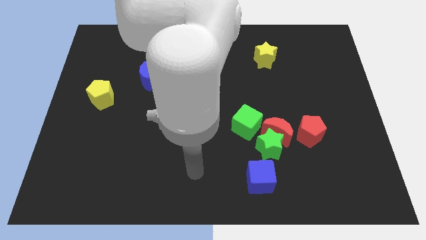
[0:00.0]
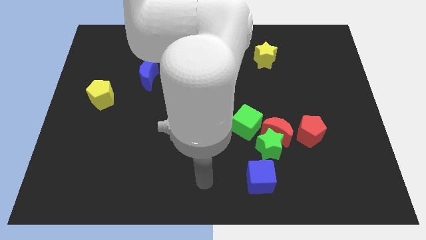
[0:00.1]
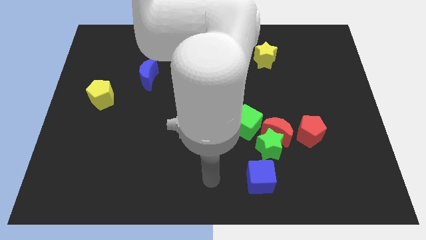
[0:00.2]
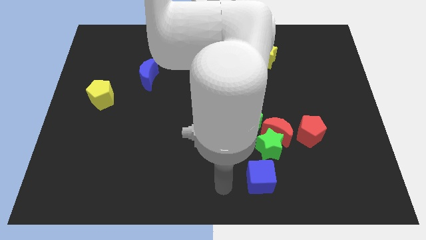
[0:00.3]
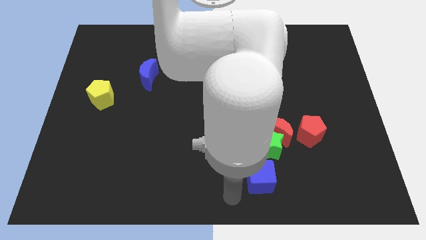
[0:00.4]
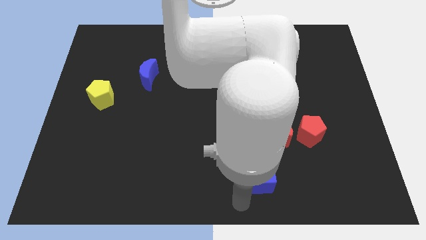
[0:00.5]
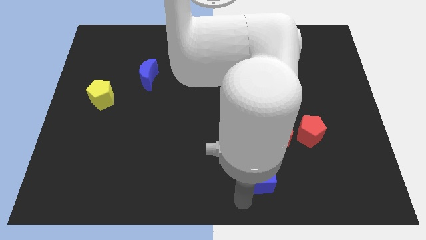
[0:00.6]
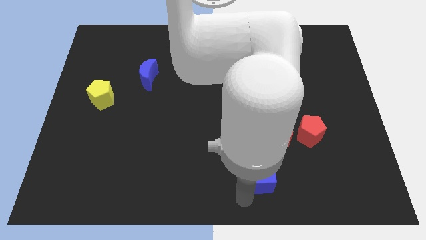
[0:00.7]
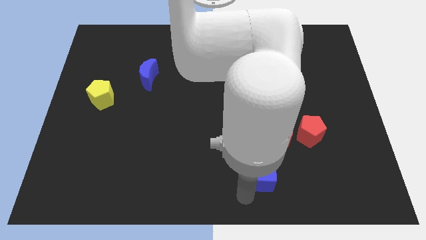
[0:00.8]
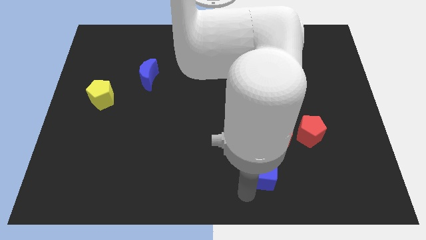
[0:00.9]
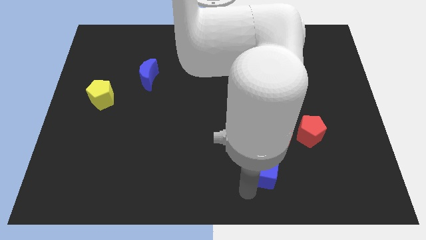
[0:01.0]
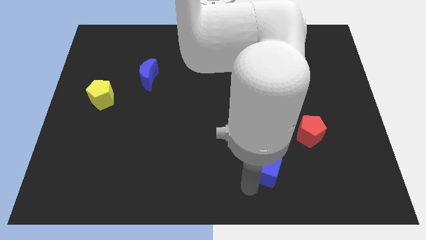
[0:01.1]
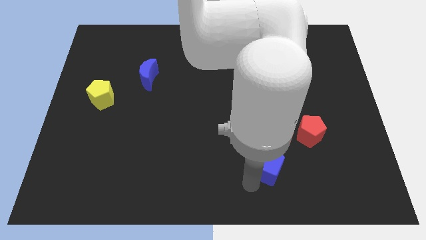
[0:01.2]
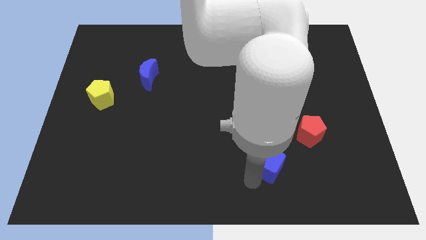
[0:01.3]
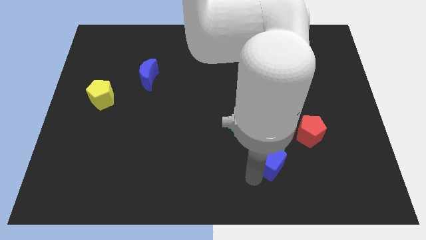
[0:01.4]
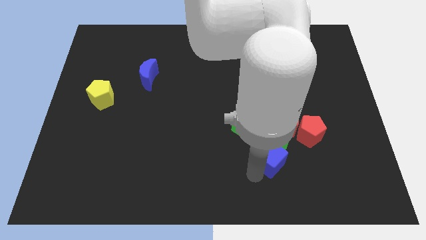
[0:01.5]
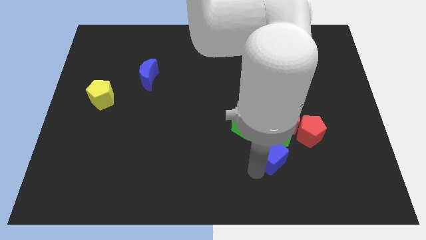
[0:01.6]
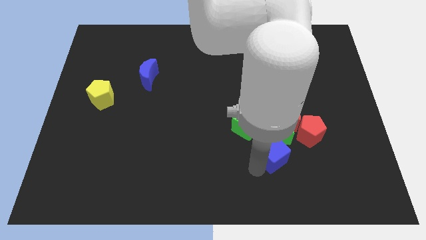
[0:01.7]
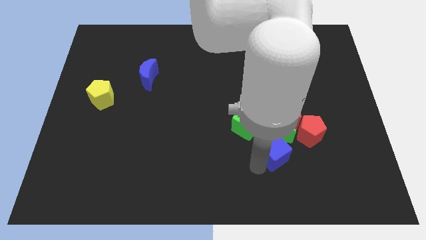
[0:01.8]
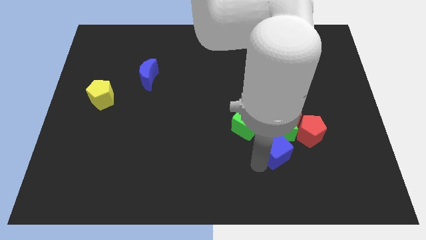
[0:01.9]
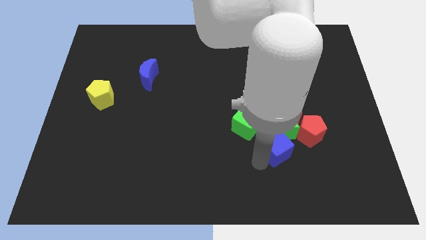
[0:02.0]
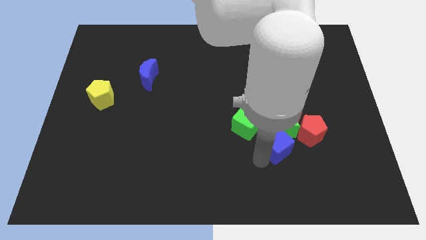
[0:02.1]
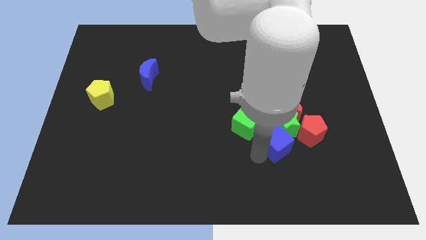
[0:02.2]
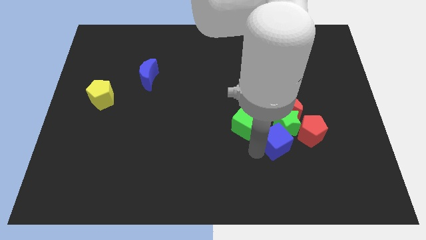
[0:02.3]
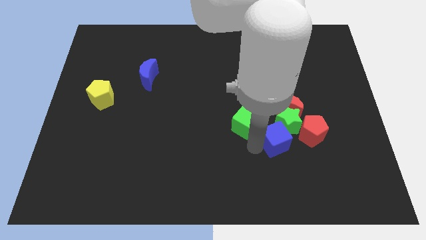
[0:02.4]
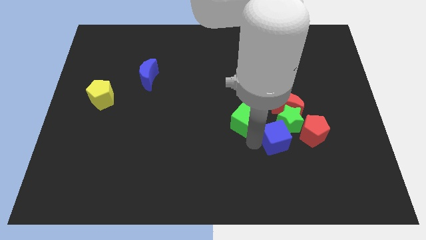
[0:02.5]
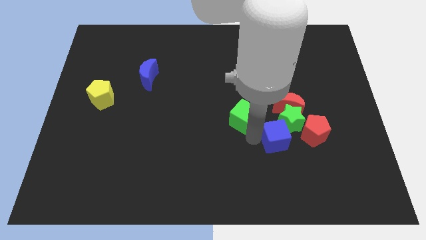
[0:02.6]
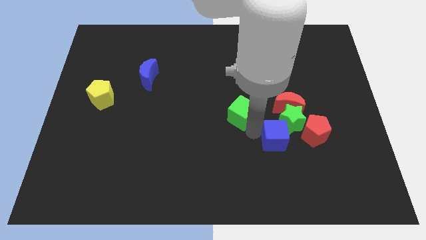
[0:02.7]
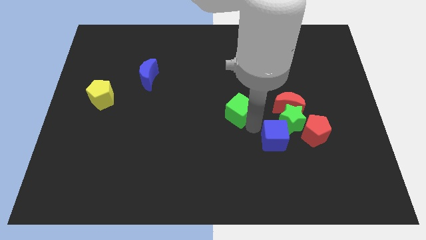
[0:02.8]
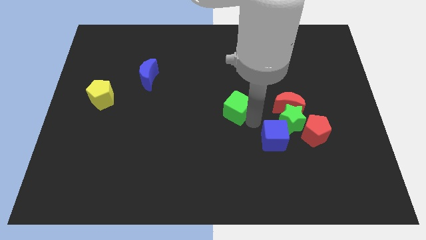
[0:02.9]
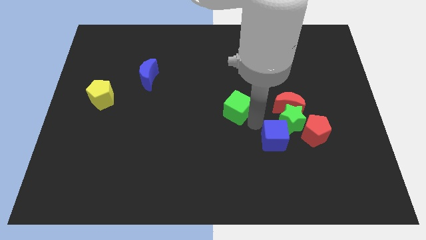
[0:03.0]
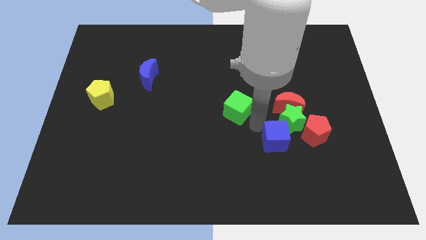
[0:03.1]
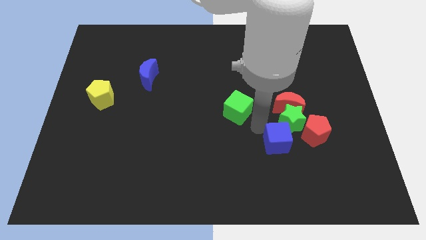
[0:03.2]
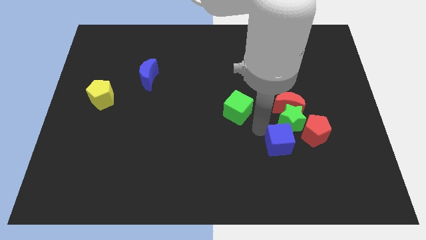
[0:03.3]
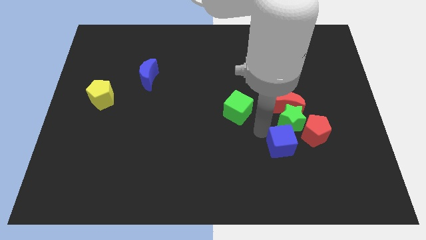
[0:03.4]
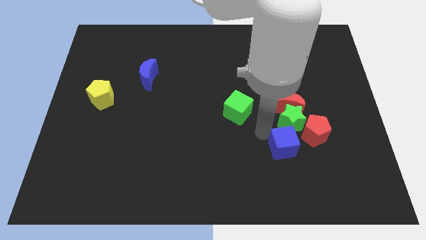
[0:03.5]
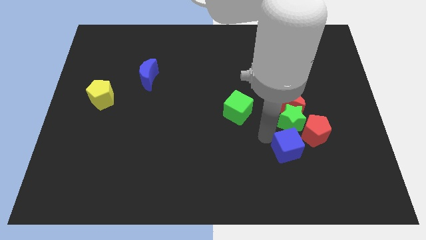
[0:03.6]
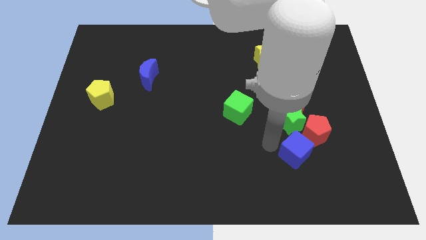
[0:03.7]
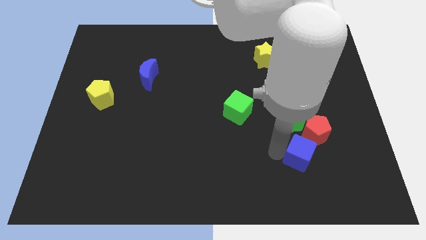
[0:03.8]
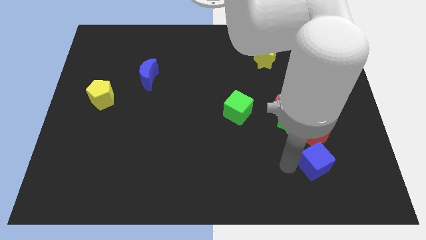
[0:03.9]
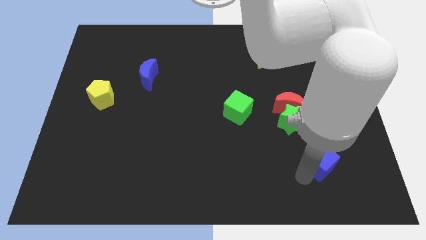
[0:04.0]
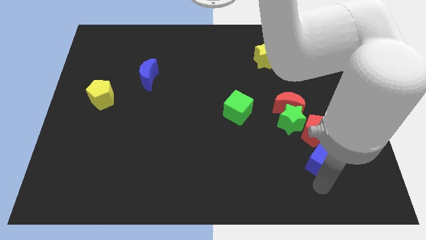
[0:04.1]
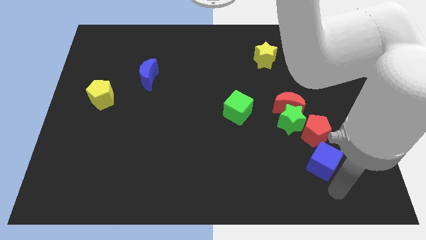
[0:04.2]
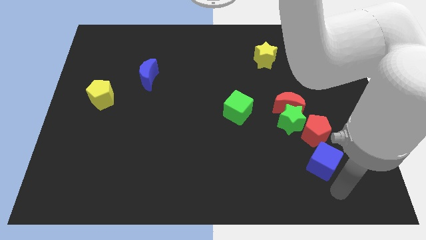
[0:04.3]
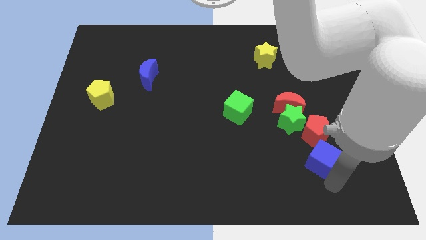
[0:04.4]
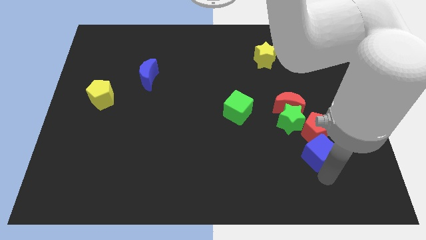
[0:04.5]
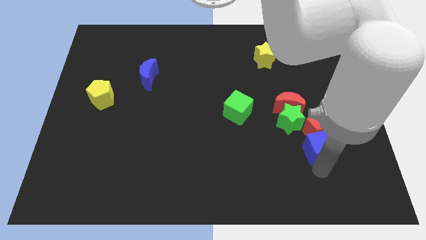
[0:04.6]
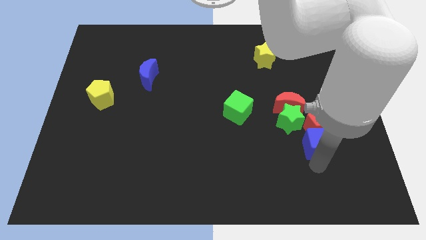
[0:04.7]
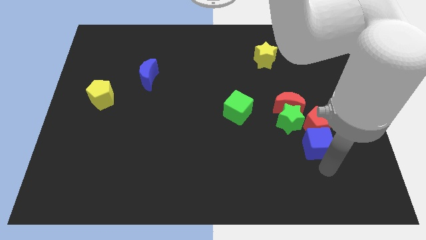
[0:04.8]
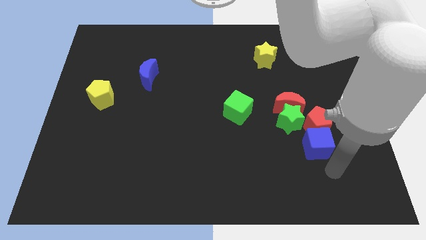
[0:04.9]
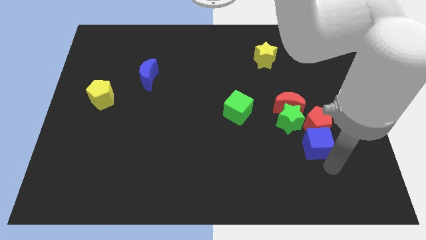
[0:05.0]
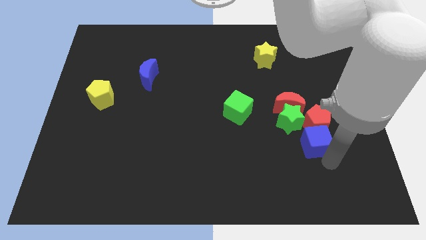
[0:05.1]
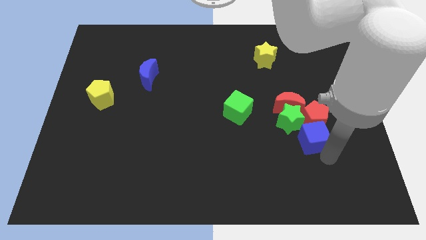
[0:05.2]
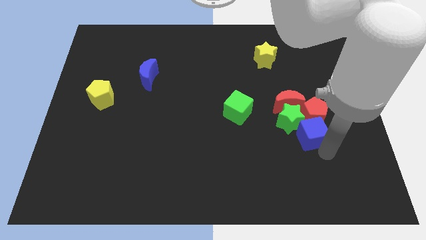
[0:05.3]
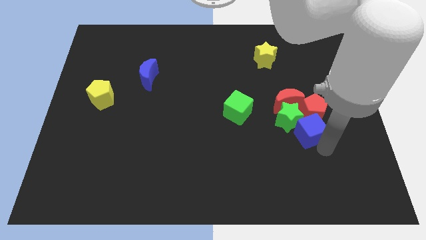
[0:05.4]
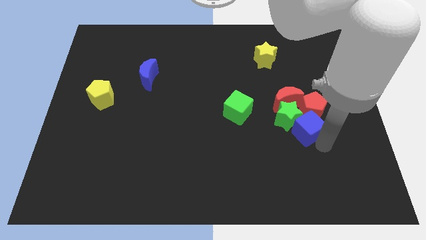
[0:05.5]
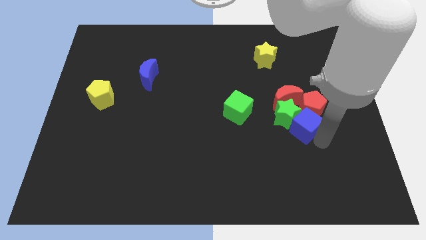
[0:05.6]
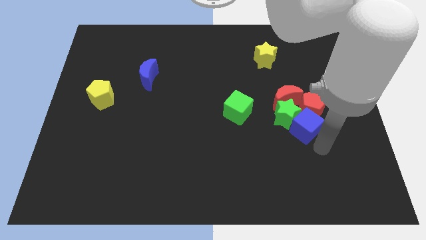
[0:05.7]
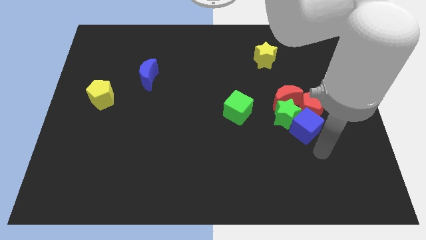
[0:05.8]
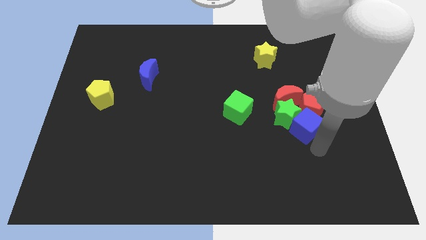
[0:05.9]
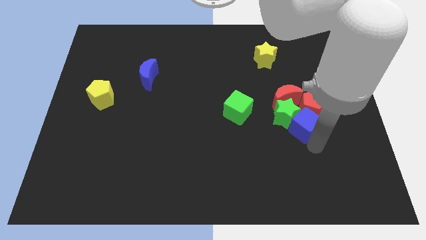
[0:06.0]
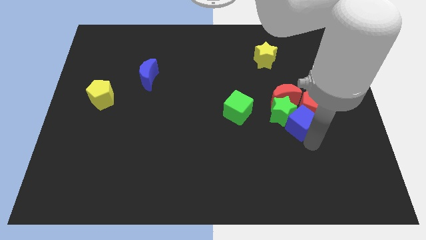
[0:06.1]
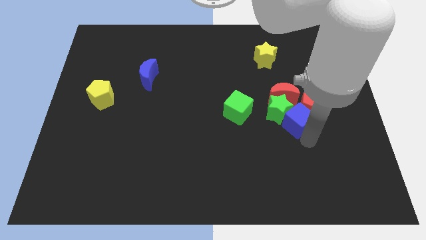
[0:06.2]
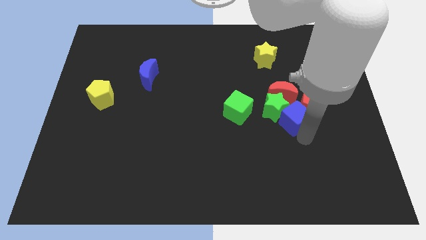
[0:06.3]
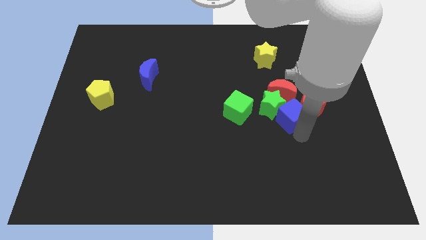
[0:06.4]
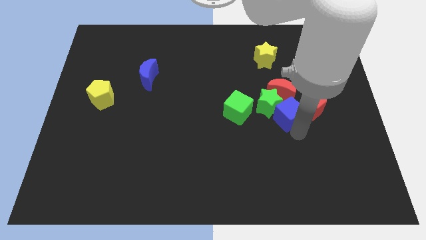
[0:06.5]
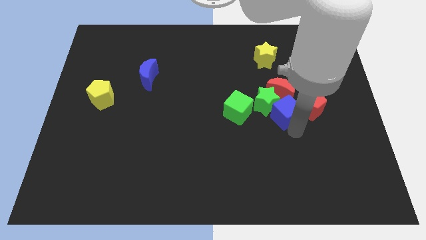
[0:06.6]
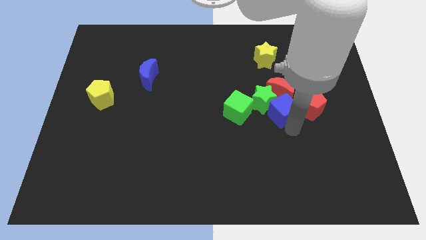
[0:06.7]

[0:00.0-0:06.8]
move the blue cube to the red moon

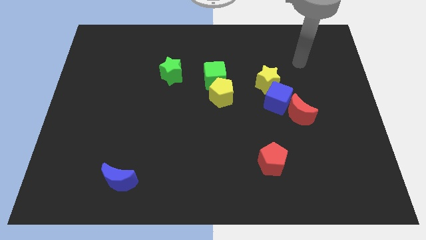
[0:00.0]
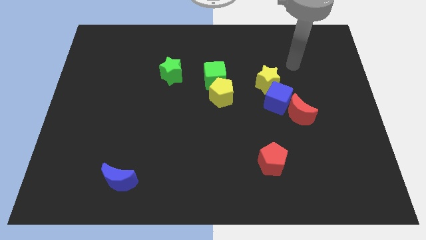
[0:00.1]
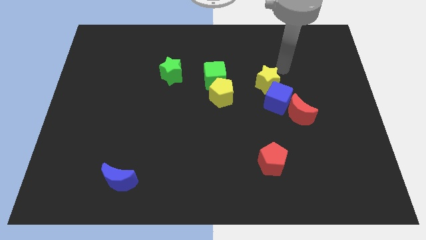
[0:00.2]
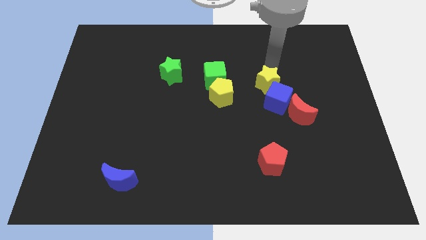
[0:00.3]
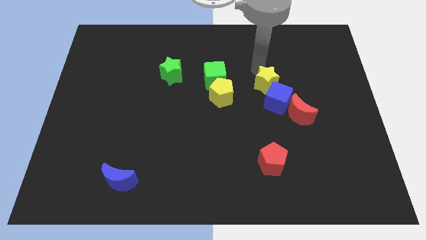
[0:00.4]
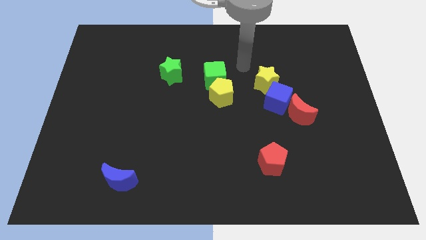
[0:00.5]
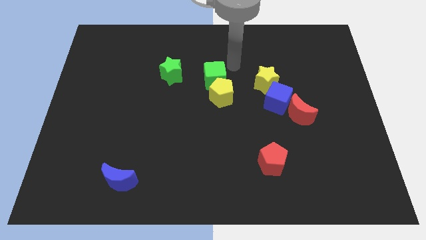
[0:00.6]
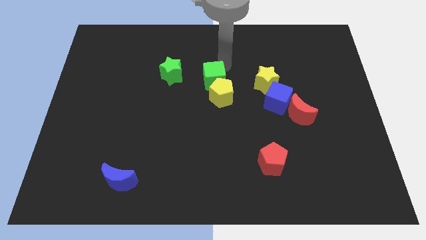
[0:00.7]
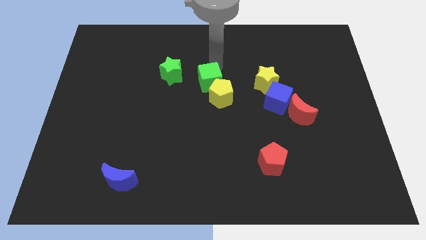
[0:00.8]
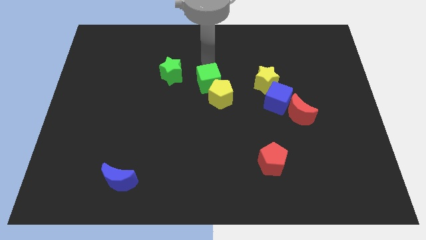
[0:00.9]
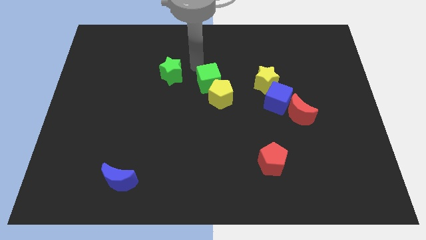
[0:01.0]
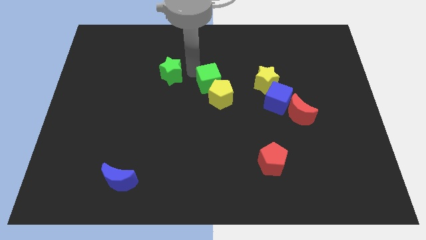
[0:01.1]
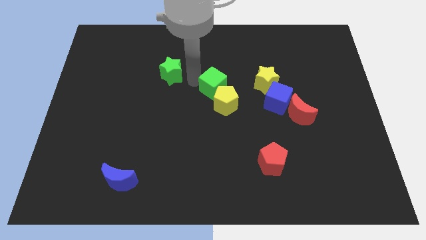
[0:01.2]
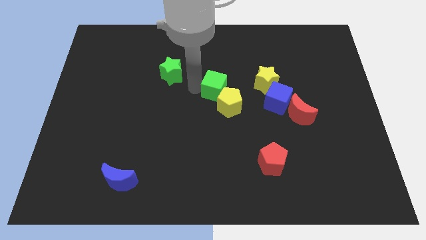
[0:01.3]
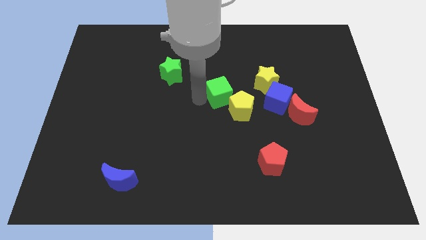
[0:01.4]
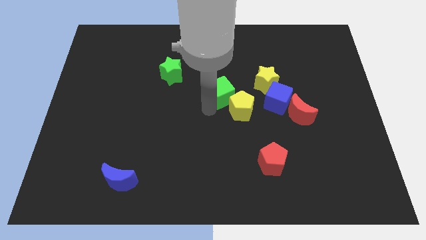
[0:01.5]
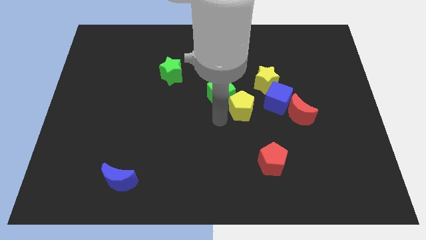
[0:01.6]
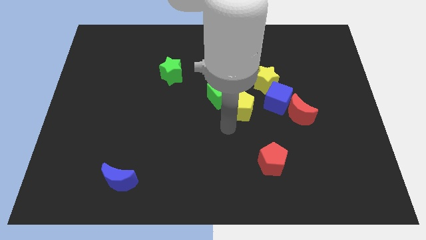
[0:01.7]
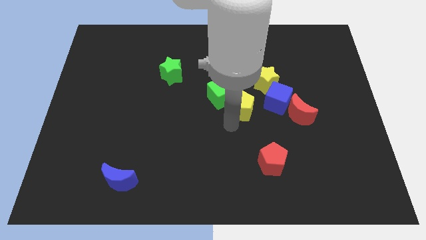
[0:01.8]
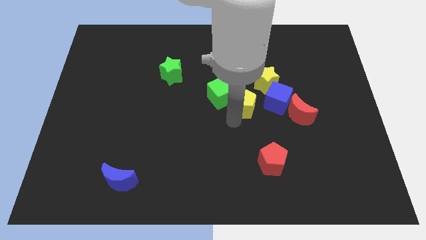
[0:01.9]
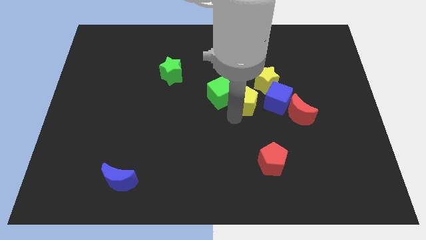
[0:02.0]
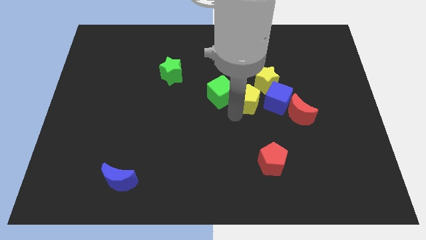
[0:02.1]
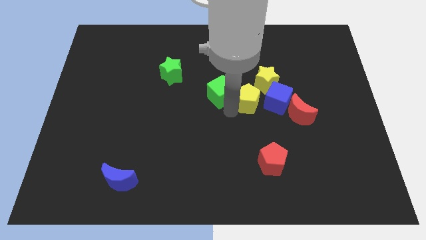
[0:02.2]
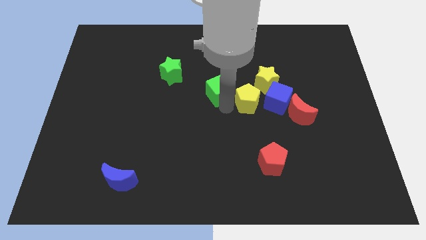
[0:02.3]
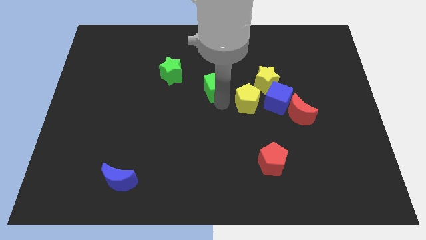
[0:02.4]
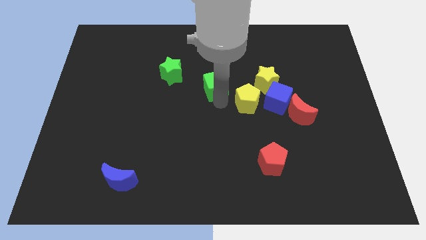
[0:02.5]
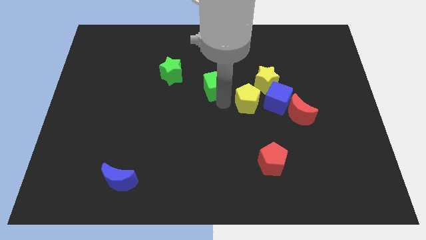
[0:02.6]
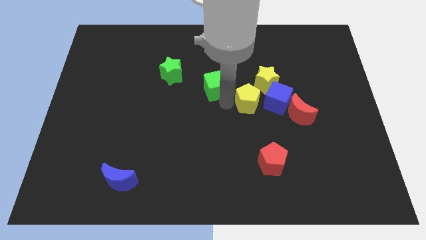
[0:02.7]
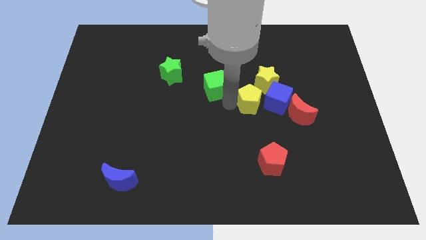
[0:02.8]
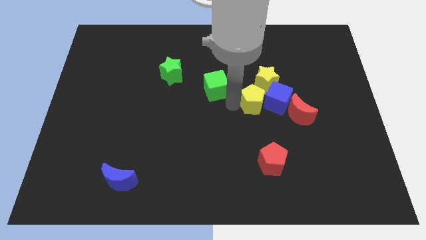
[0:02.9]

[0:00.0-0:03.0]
put the yellow pentagon next to the blue cube
